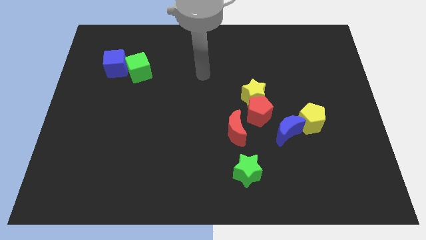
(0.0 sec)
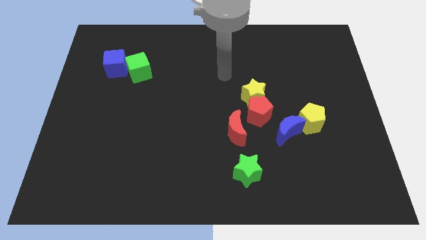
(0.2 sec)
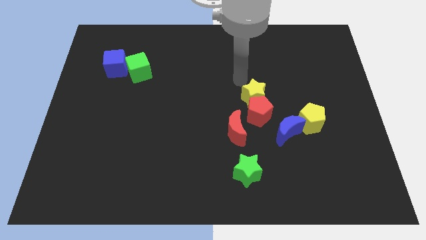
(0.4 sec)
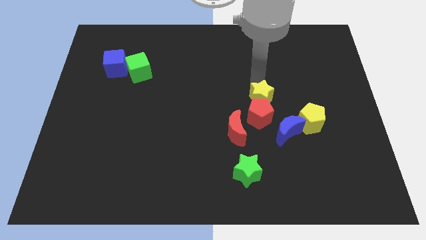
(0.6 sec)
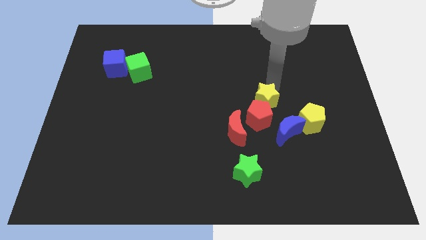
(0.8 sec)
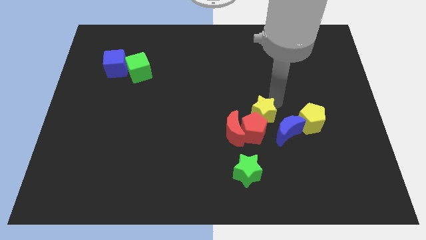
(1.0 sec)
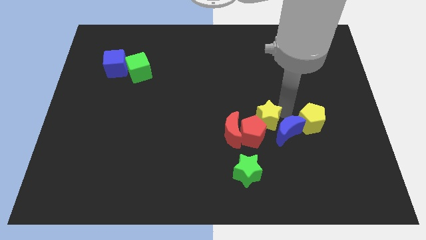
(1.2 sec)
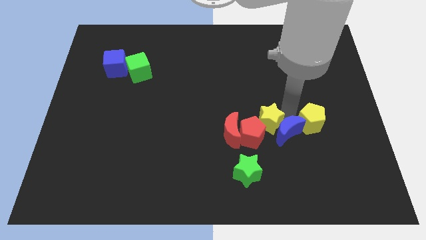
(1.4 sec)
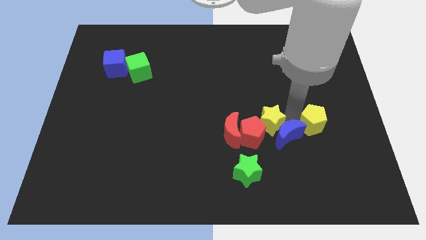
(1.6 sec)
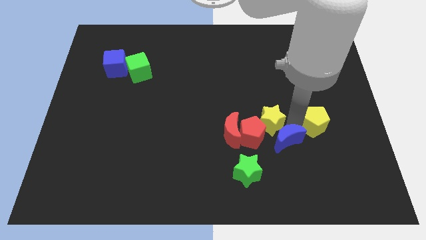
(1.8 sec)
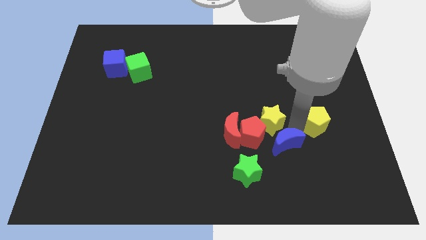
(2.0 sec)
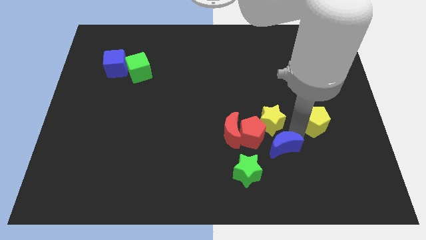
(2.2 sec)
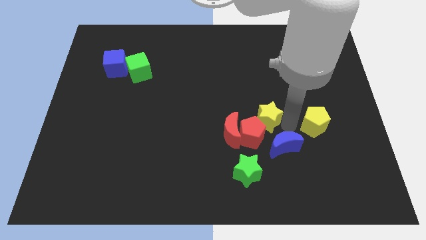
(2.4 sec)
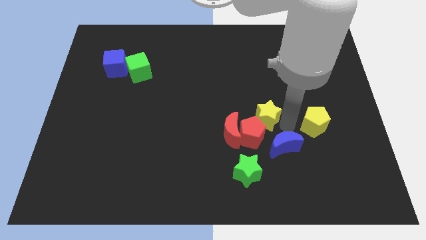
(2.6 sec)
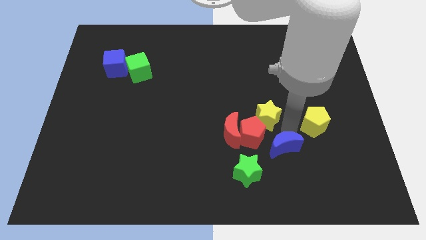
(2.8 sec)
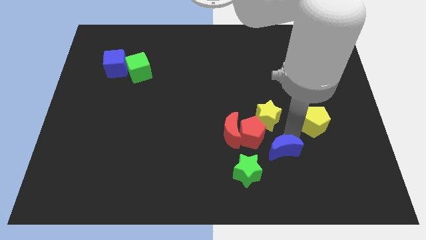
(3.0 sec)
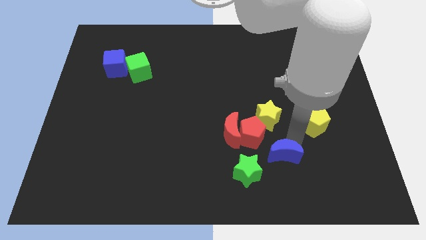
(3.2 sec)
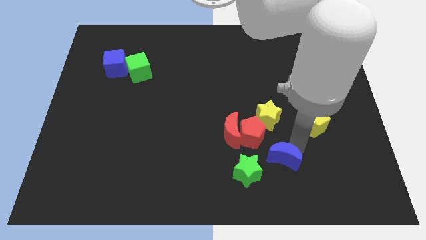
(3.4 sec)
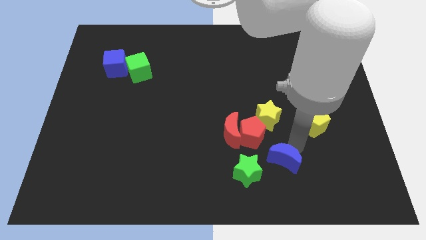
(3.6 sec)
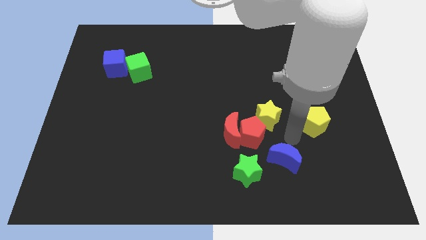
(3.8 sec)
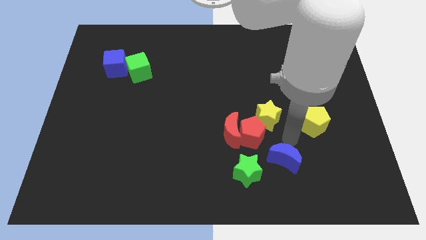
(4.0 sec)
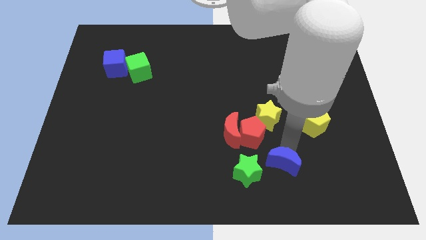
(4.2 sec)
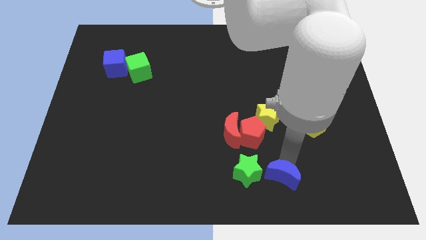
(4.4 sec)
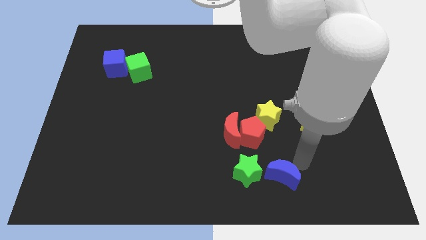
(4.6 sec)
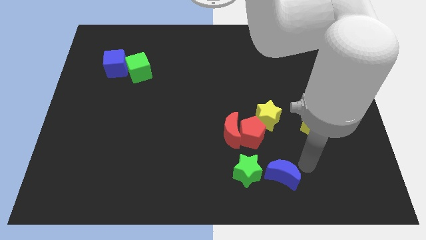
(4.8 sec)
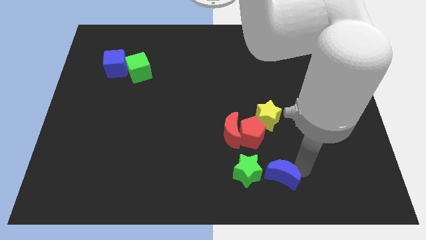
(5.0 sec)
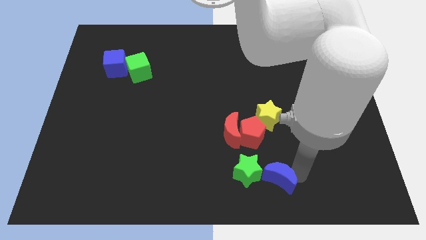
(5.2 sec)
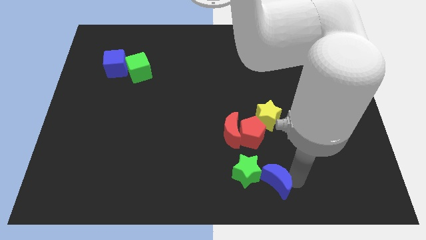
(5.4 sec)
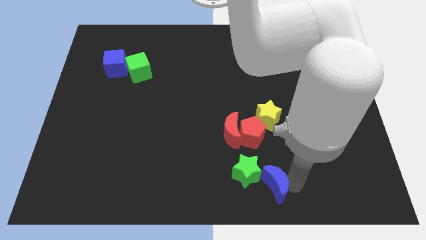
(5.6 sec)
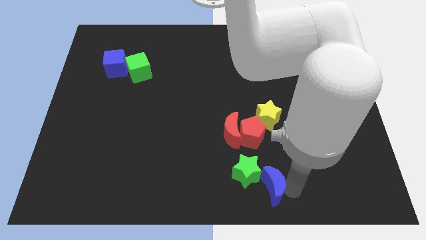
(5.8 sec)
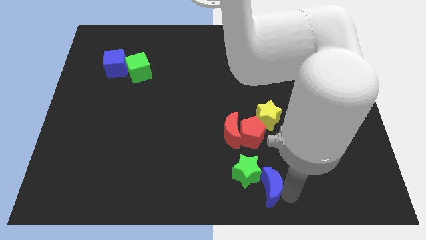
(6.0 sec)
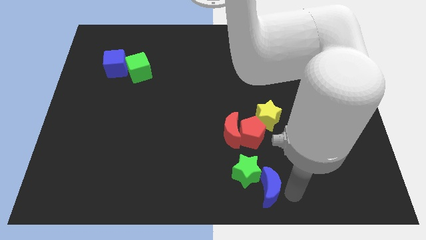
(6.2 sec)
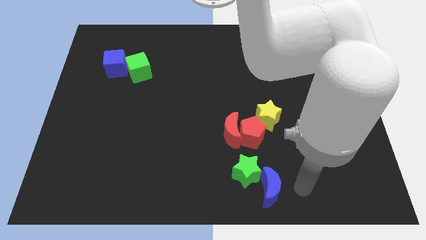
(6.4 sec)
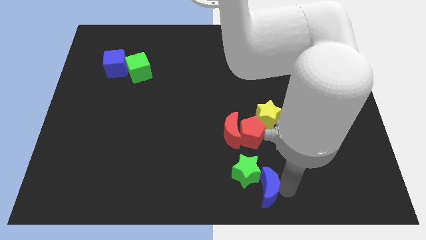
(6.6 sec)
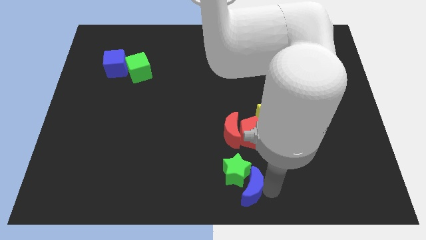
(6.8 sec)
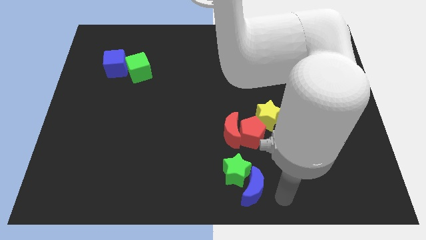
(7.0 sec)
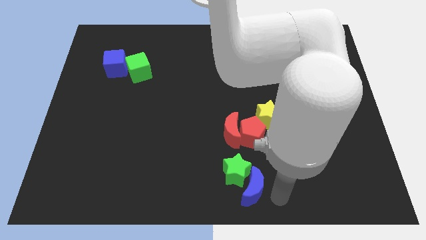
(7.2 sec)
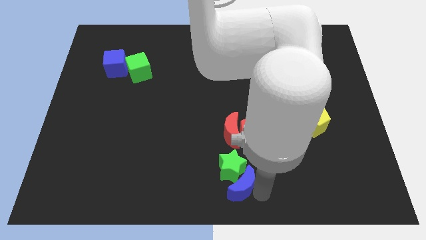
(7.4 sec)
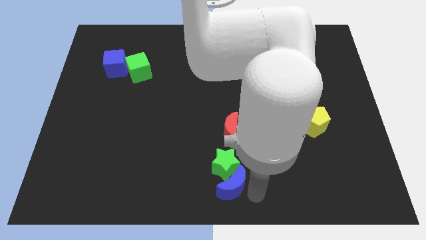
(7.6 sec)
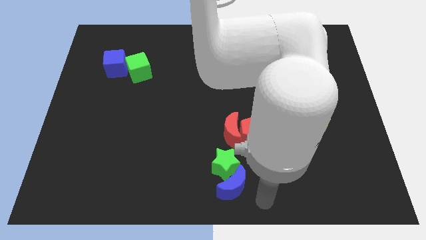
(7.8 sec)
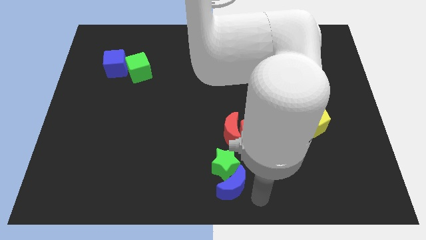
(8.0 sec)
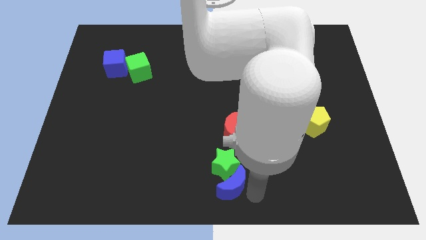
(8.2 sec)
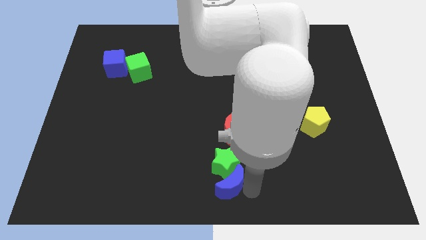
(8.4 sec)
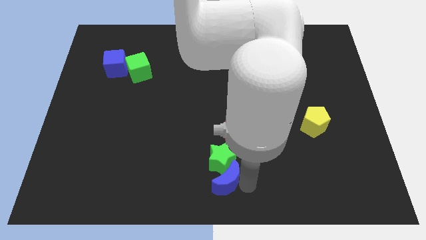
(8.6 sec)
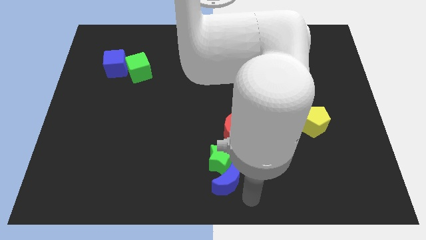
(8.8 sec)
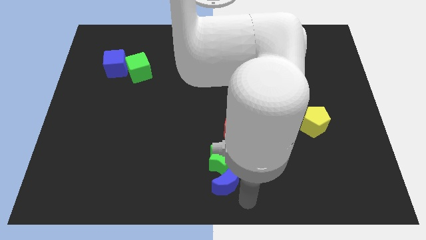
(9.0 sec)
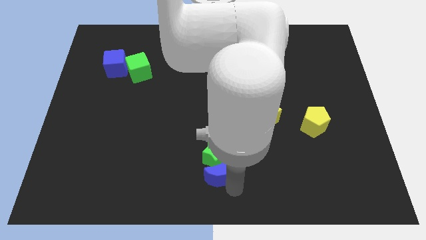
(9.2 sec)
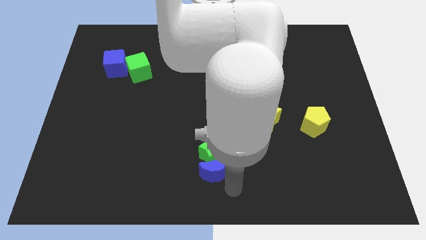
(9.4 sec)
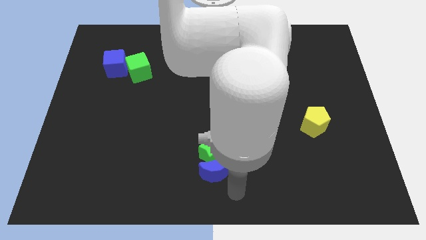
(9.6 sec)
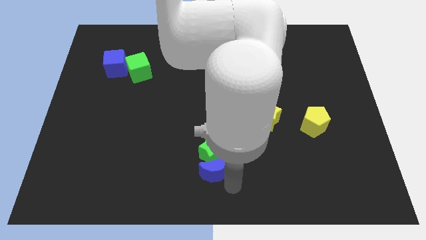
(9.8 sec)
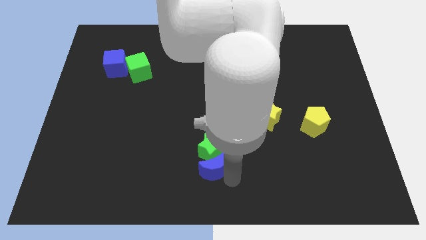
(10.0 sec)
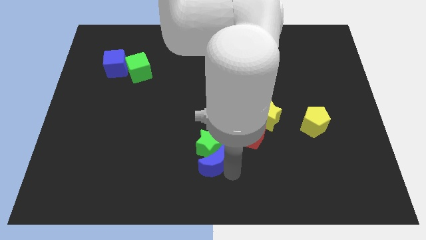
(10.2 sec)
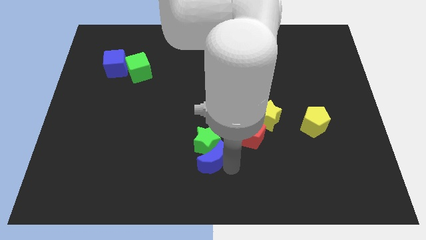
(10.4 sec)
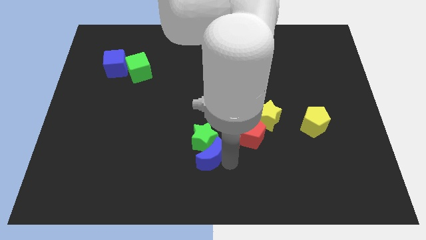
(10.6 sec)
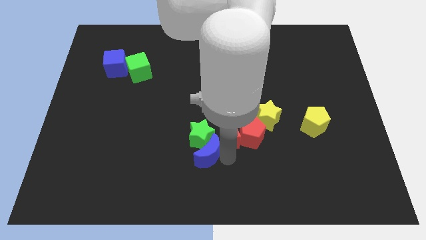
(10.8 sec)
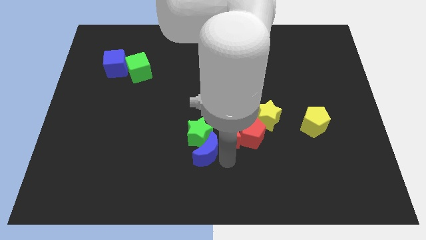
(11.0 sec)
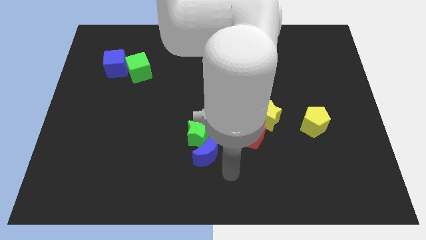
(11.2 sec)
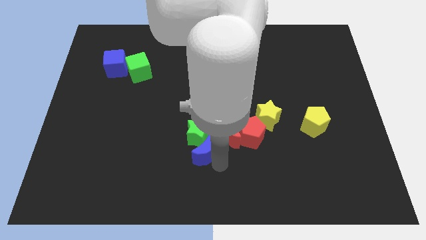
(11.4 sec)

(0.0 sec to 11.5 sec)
slide the blue moon left of the red moon

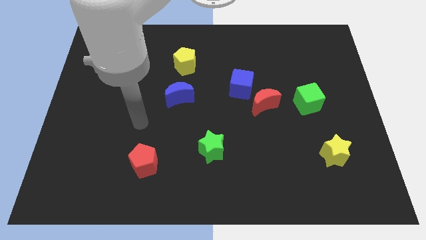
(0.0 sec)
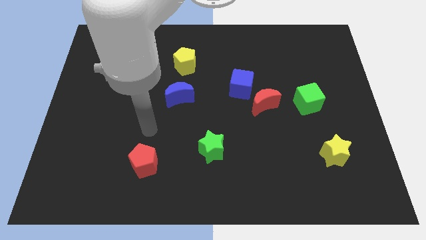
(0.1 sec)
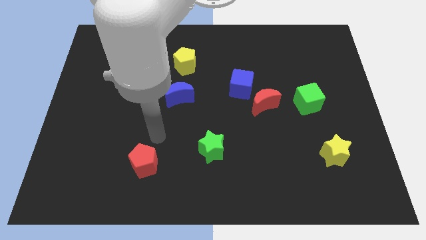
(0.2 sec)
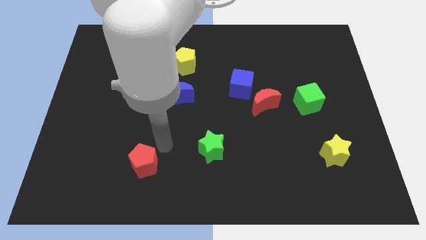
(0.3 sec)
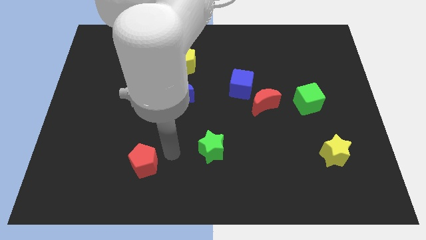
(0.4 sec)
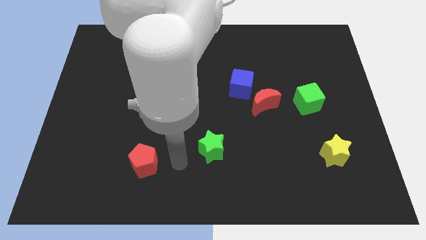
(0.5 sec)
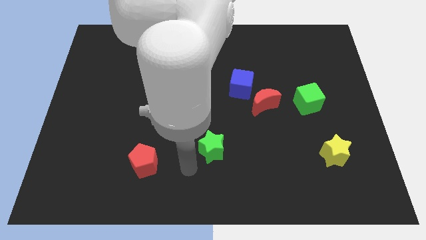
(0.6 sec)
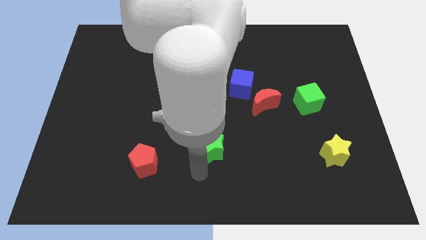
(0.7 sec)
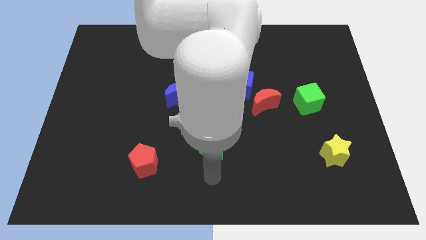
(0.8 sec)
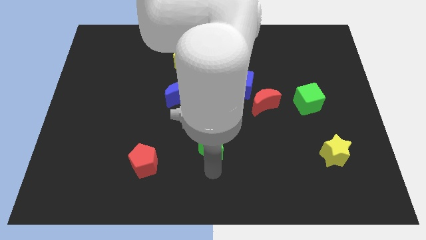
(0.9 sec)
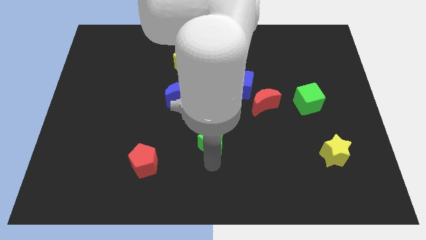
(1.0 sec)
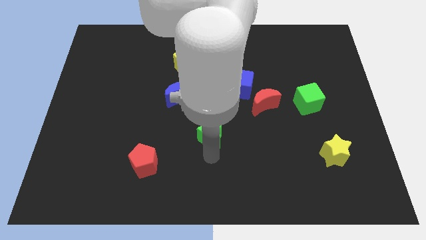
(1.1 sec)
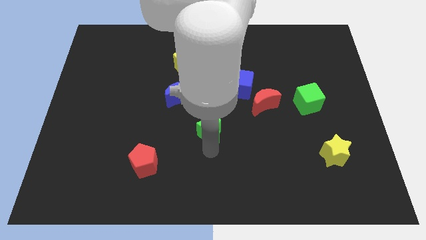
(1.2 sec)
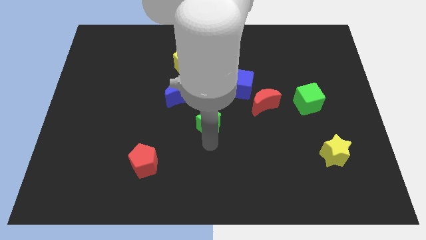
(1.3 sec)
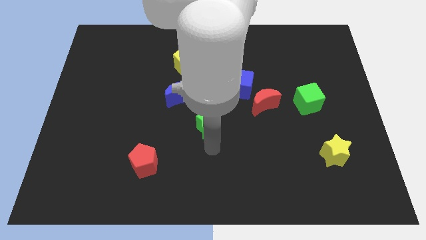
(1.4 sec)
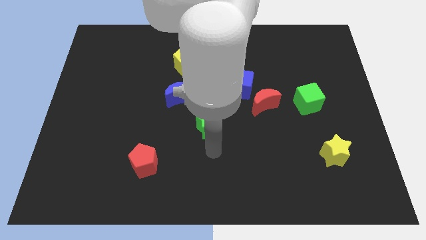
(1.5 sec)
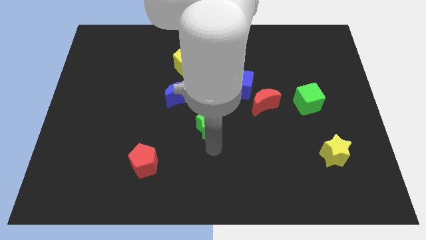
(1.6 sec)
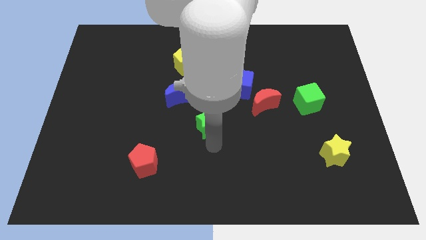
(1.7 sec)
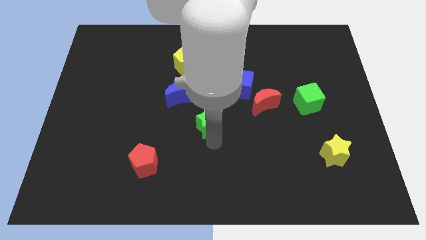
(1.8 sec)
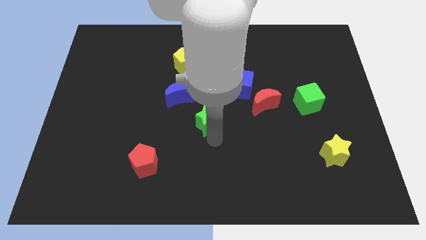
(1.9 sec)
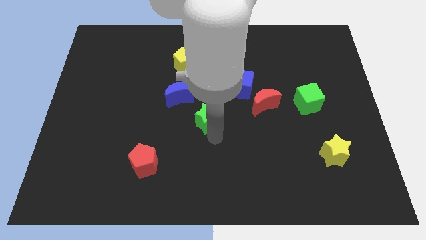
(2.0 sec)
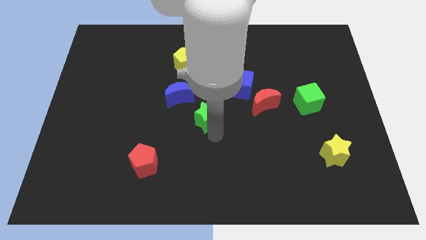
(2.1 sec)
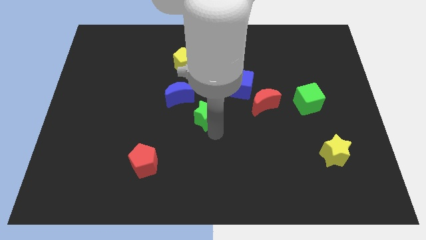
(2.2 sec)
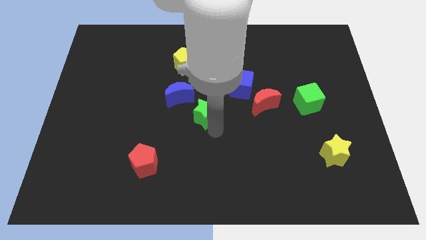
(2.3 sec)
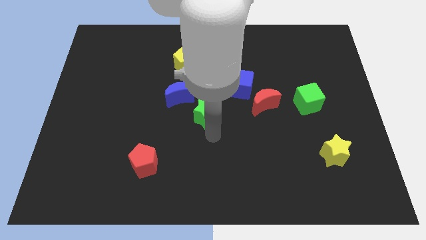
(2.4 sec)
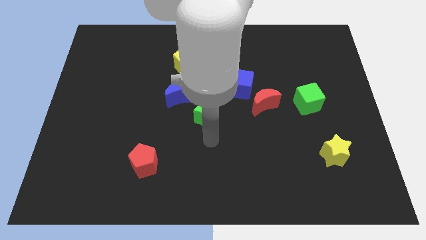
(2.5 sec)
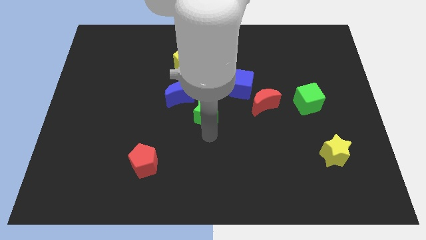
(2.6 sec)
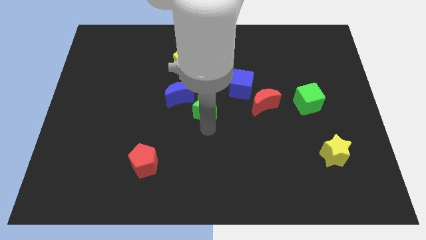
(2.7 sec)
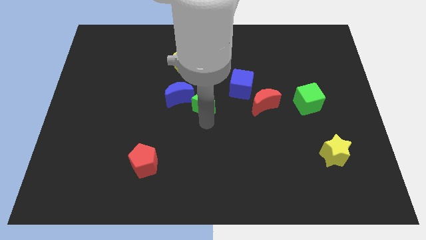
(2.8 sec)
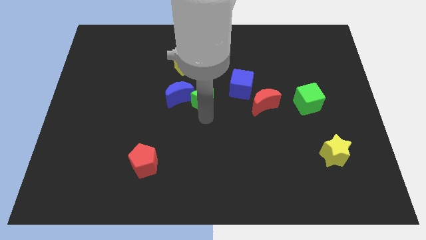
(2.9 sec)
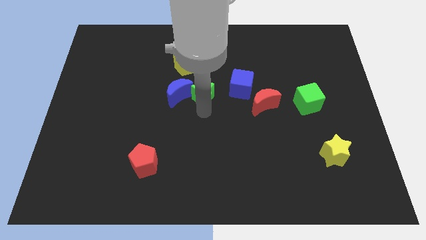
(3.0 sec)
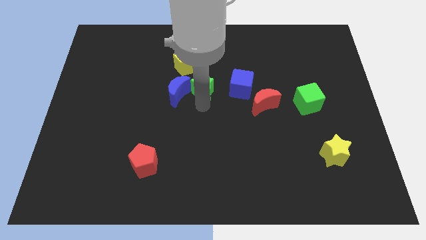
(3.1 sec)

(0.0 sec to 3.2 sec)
push the green star diagonally down and to the right of the yellow pentagon
